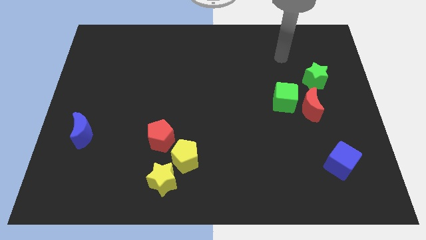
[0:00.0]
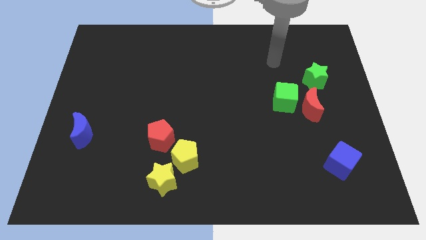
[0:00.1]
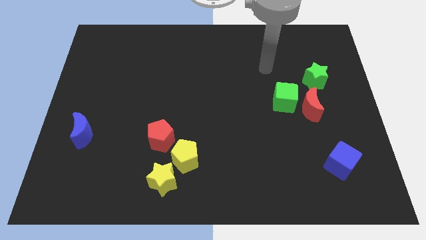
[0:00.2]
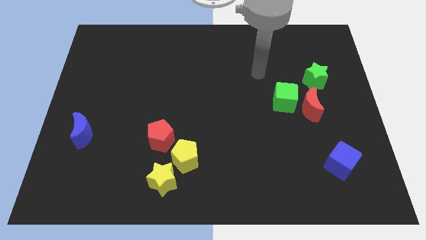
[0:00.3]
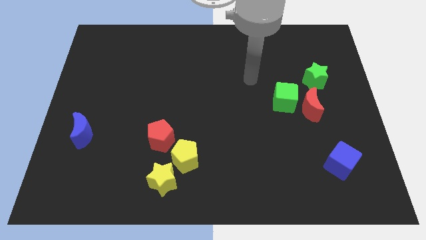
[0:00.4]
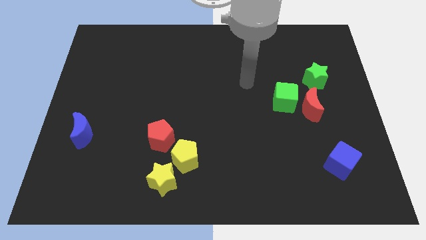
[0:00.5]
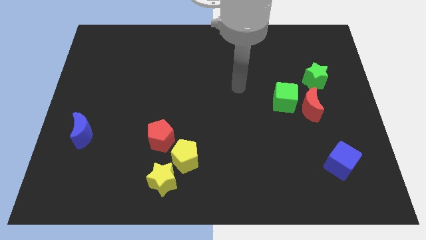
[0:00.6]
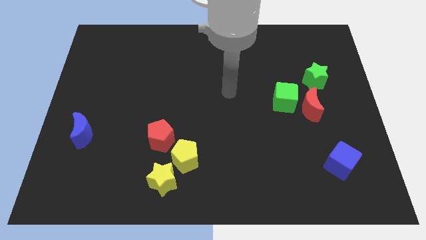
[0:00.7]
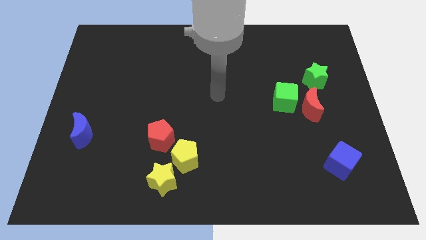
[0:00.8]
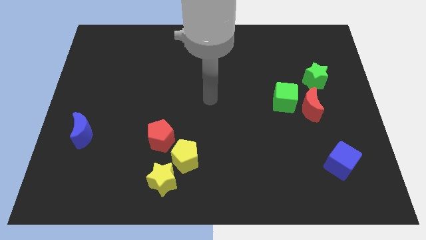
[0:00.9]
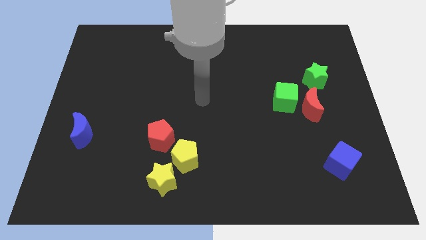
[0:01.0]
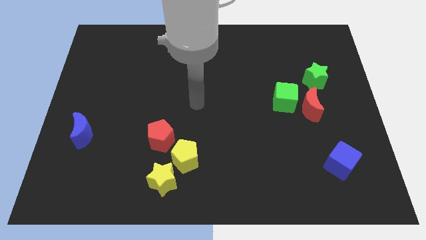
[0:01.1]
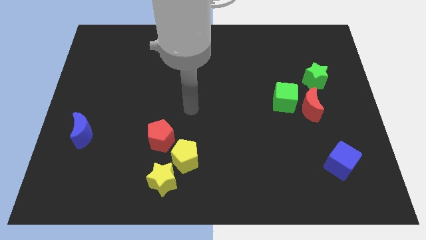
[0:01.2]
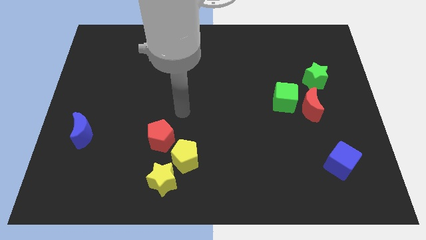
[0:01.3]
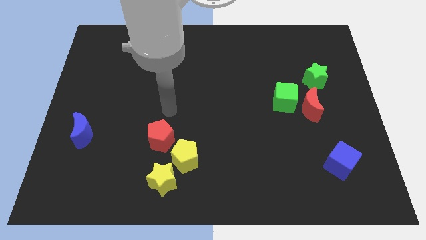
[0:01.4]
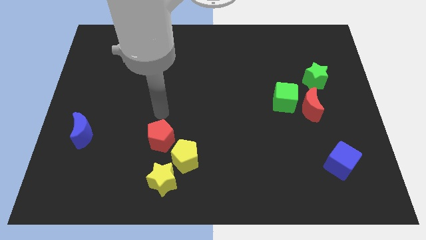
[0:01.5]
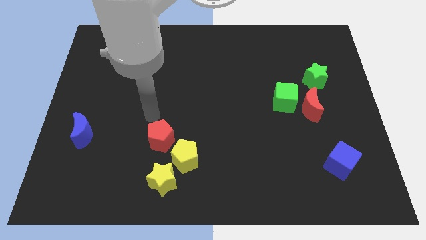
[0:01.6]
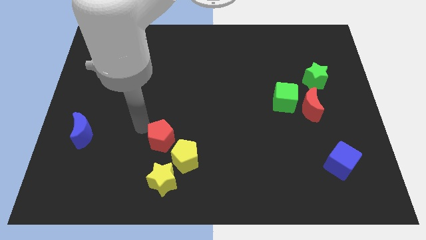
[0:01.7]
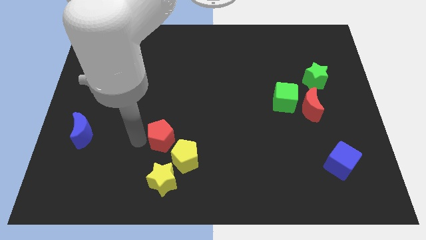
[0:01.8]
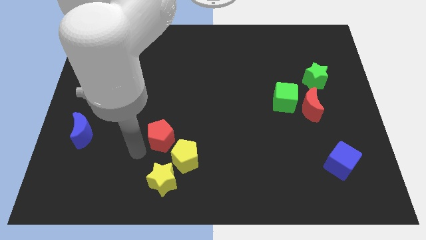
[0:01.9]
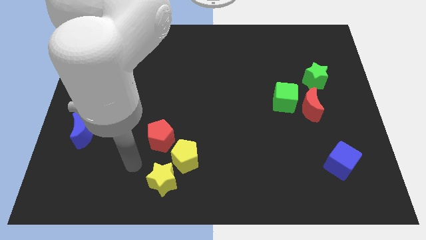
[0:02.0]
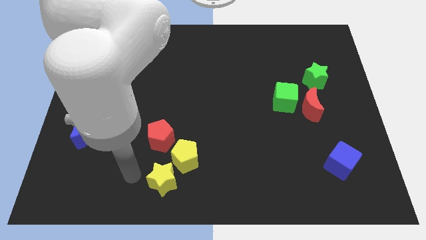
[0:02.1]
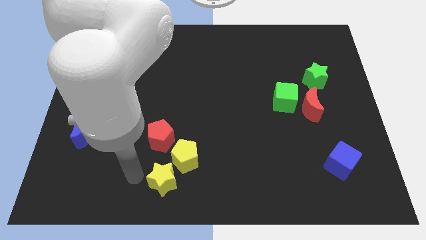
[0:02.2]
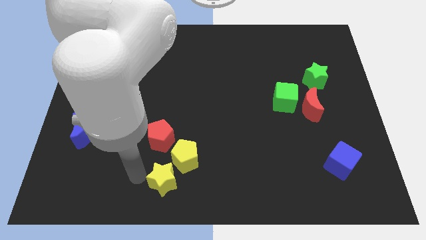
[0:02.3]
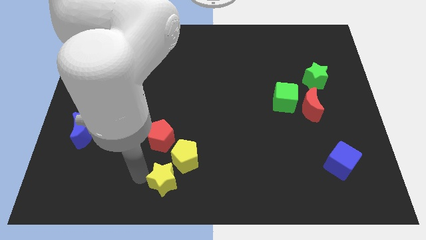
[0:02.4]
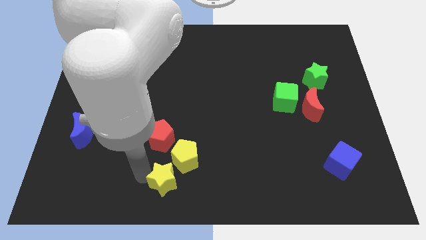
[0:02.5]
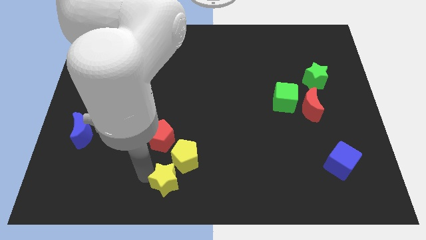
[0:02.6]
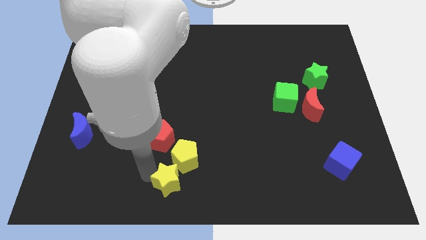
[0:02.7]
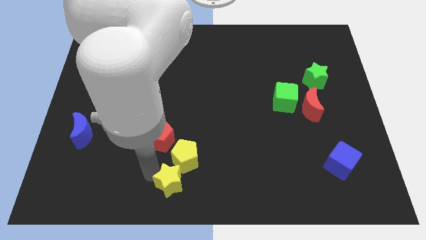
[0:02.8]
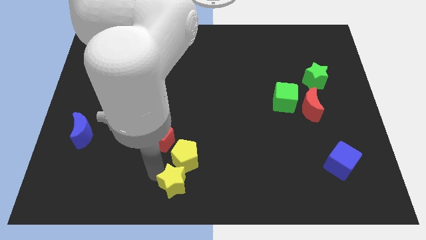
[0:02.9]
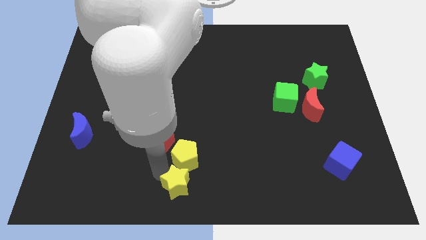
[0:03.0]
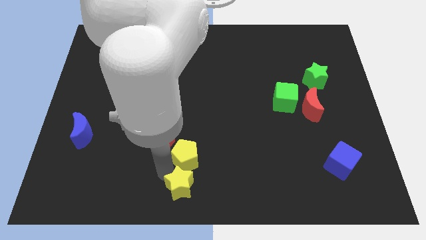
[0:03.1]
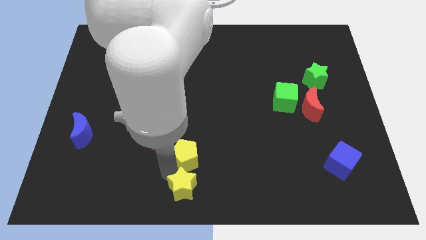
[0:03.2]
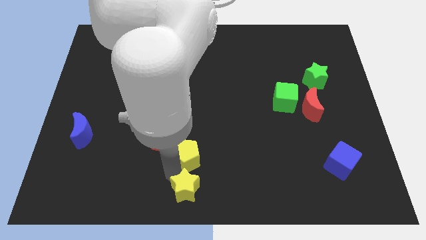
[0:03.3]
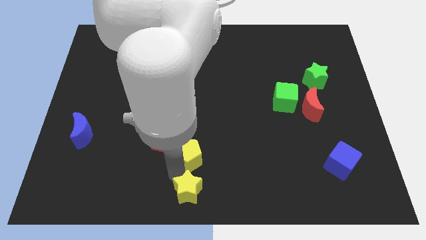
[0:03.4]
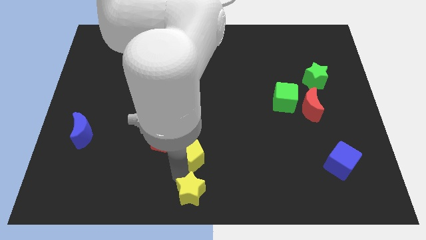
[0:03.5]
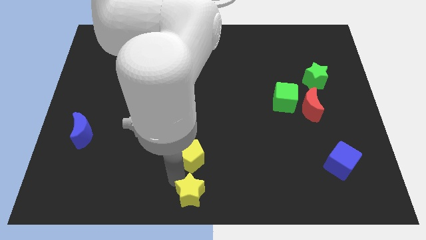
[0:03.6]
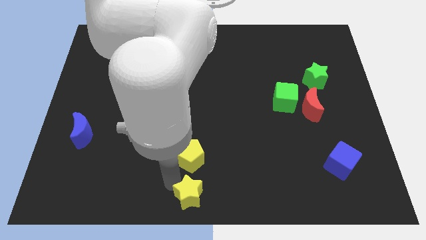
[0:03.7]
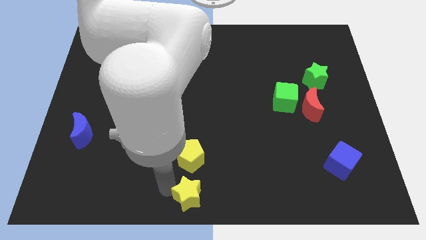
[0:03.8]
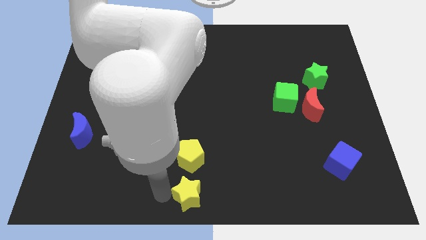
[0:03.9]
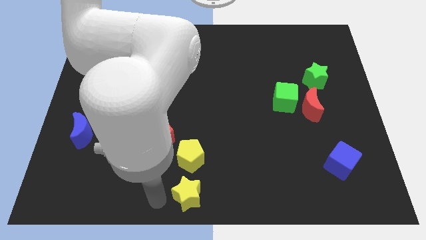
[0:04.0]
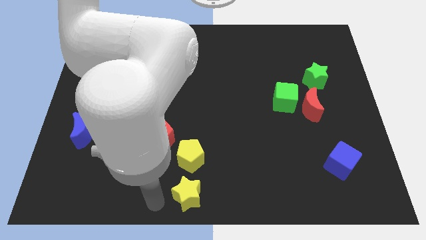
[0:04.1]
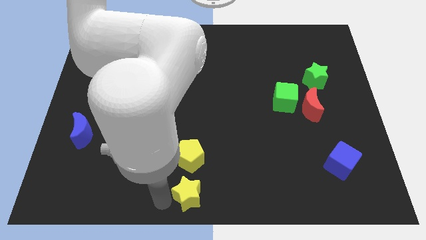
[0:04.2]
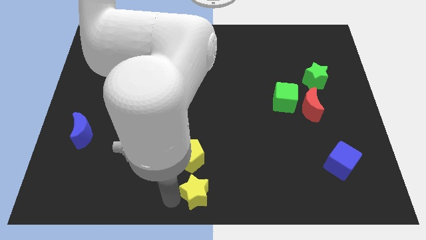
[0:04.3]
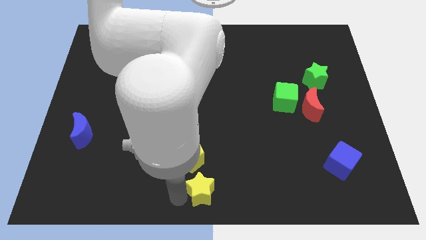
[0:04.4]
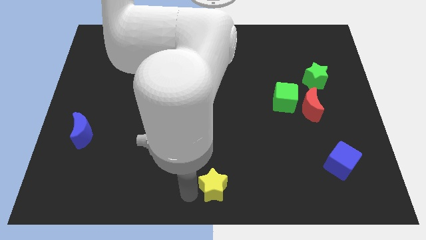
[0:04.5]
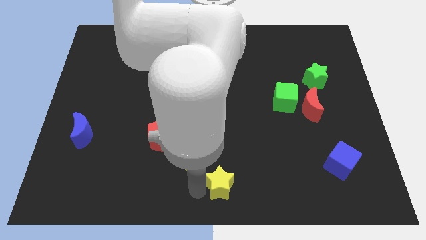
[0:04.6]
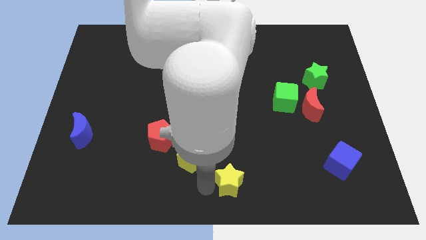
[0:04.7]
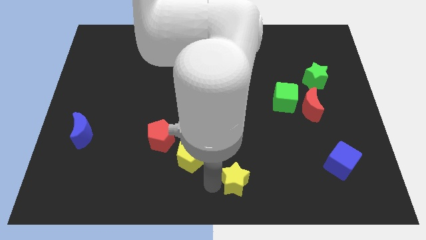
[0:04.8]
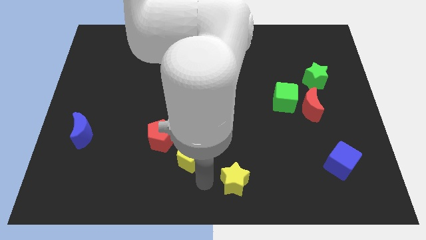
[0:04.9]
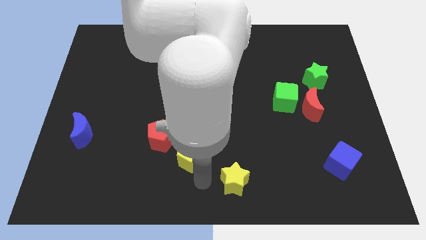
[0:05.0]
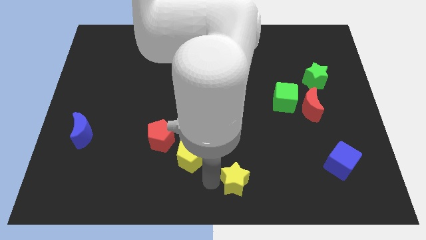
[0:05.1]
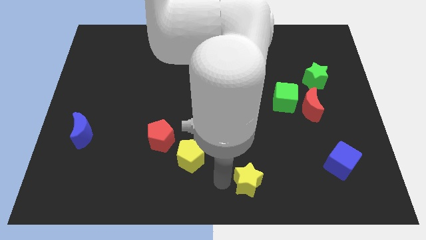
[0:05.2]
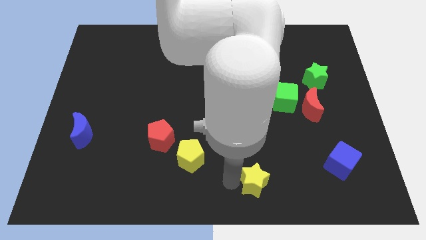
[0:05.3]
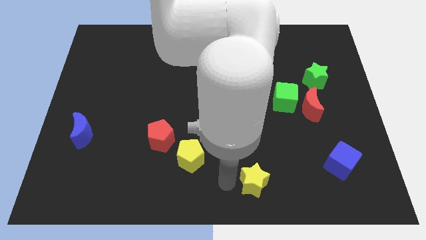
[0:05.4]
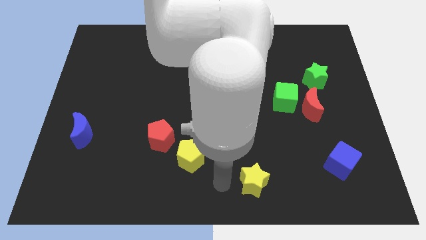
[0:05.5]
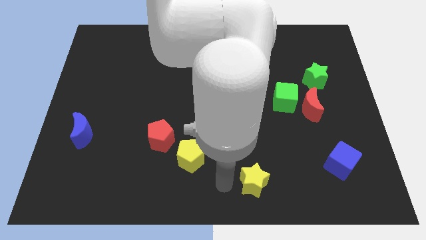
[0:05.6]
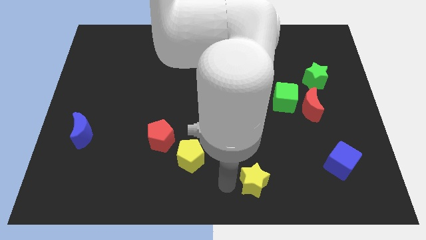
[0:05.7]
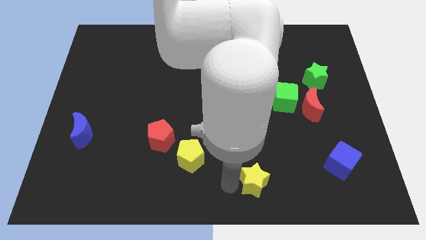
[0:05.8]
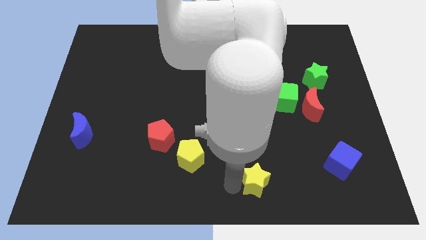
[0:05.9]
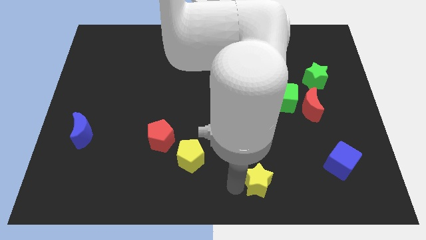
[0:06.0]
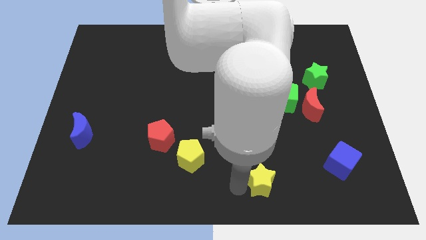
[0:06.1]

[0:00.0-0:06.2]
move the yellow star right

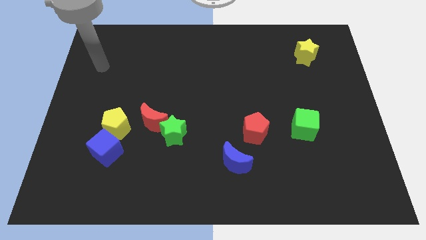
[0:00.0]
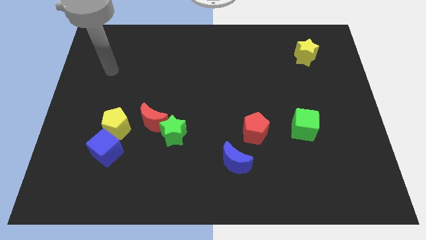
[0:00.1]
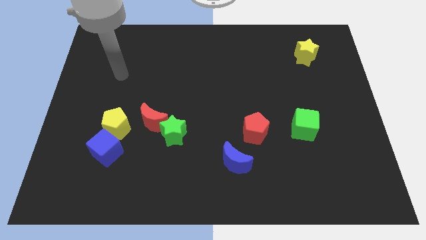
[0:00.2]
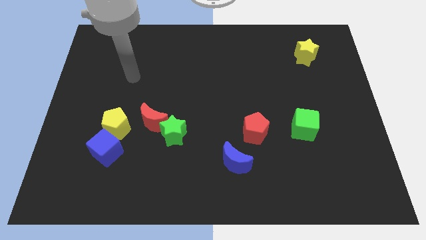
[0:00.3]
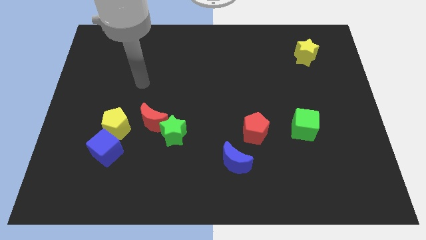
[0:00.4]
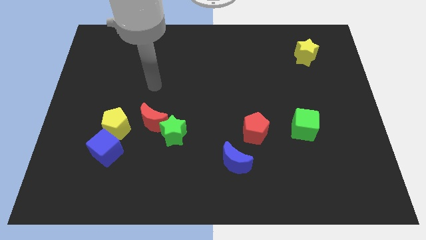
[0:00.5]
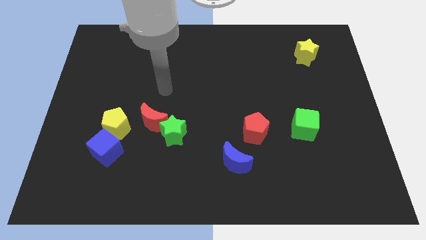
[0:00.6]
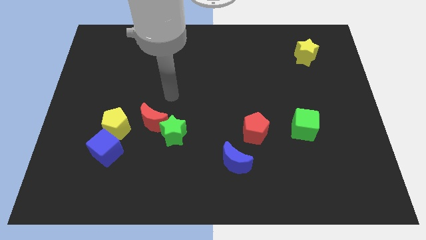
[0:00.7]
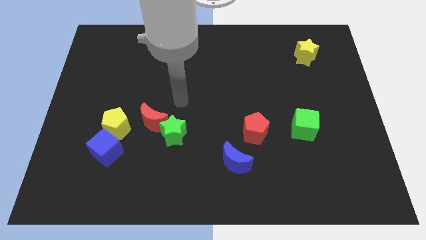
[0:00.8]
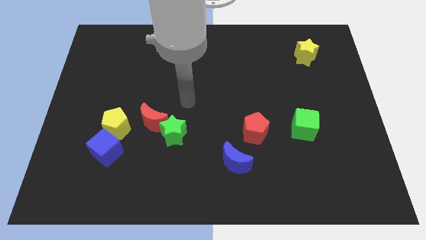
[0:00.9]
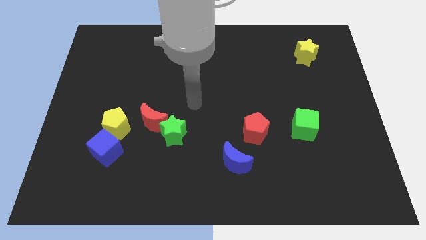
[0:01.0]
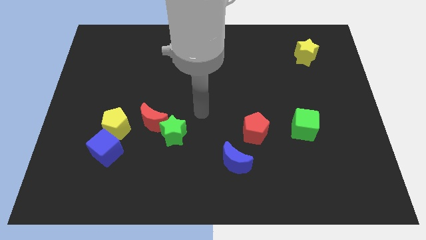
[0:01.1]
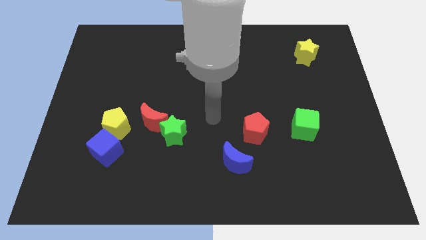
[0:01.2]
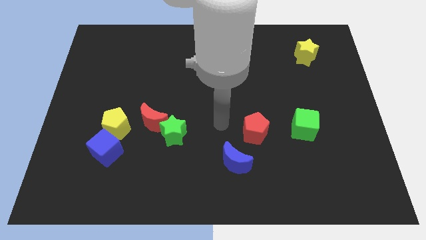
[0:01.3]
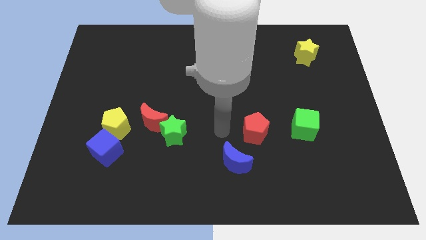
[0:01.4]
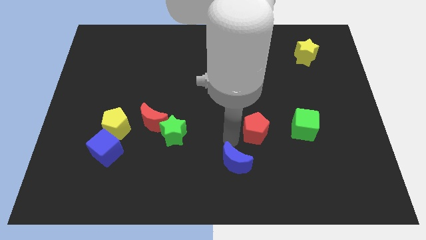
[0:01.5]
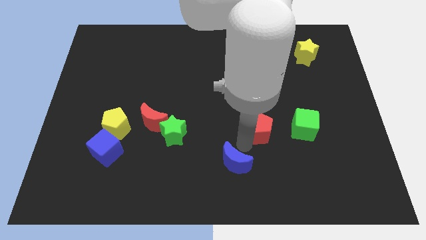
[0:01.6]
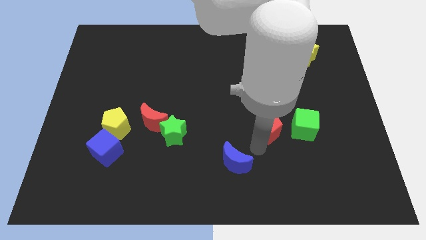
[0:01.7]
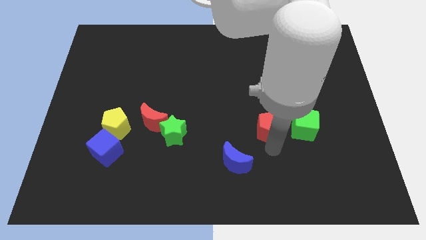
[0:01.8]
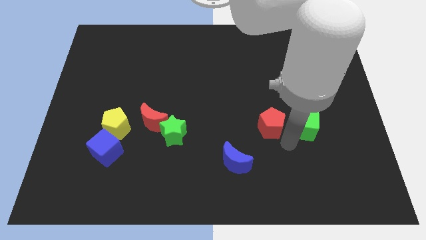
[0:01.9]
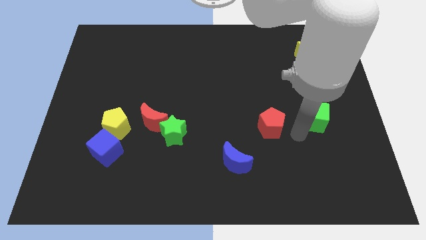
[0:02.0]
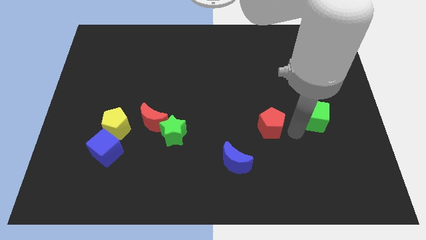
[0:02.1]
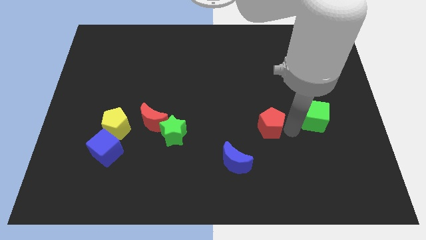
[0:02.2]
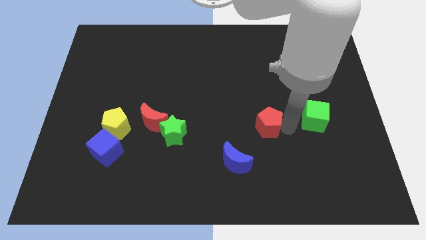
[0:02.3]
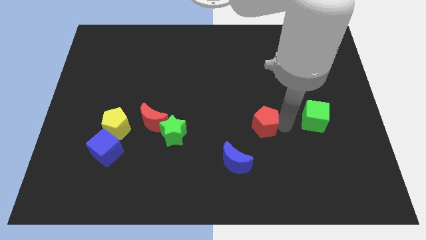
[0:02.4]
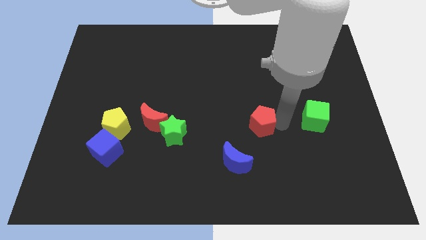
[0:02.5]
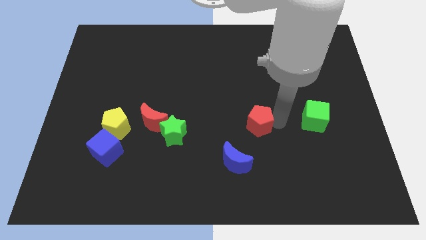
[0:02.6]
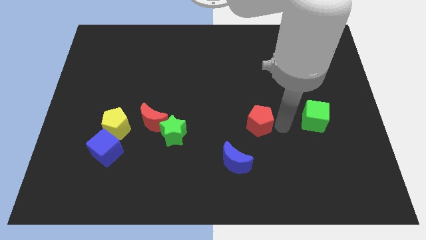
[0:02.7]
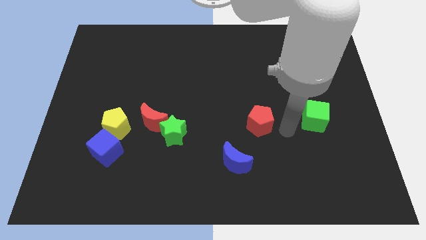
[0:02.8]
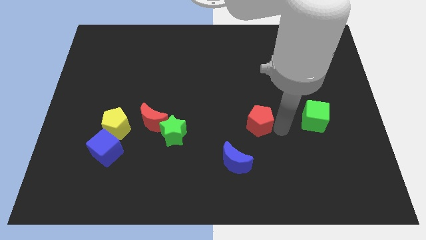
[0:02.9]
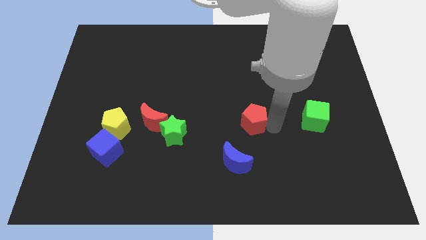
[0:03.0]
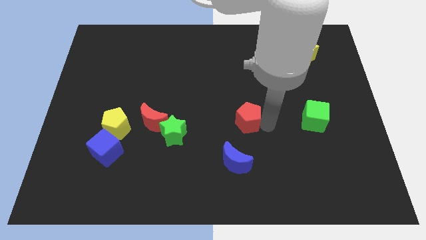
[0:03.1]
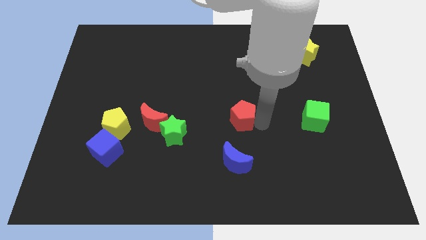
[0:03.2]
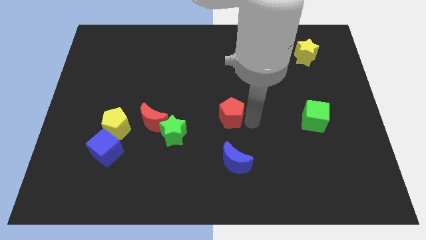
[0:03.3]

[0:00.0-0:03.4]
push the red pentagon a little upwards and to the left
